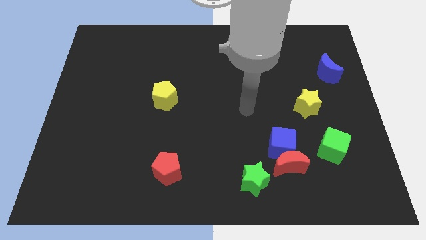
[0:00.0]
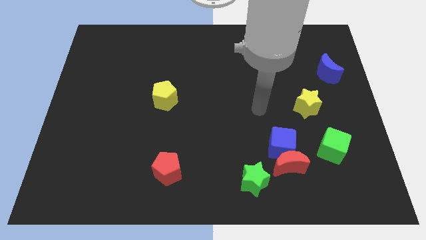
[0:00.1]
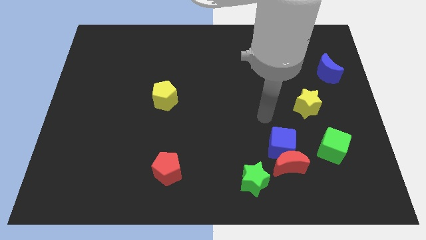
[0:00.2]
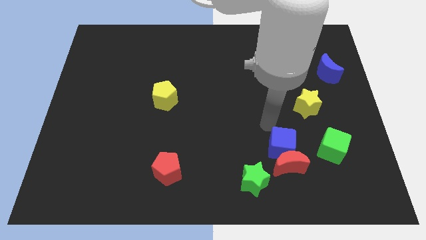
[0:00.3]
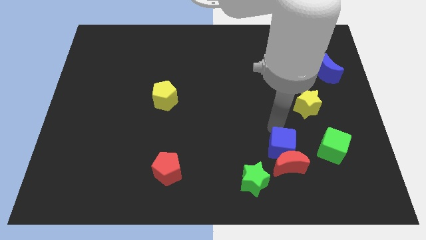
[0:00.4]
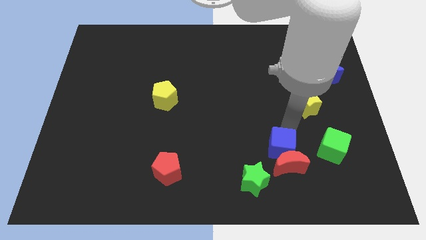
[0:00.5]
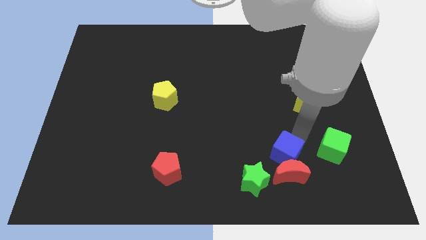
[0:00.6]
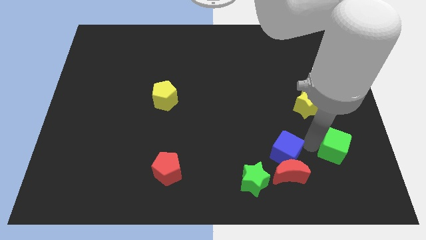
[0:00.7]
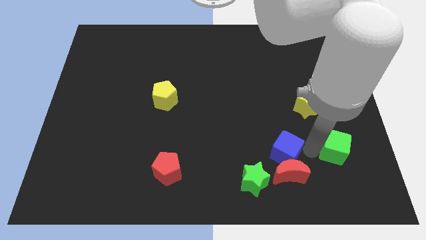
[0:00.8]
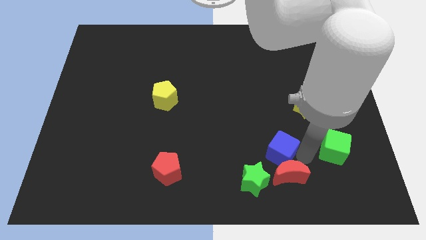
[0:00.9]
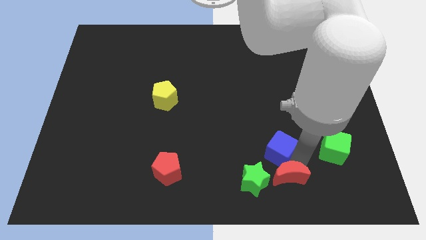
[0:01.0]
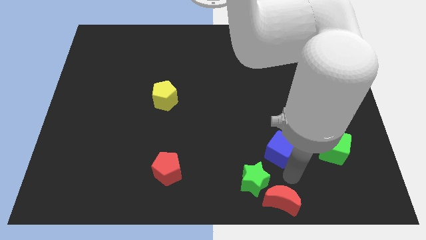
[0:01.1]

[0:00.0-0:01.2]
separate the blue cube from the red moon

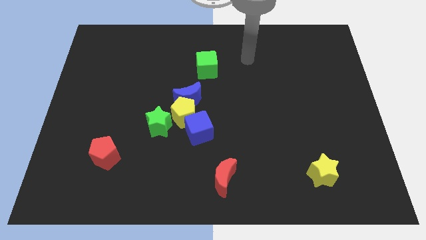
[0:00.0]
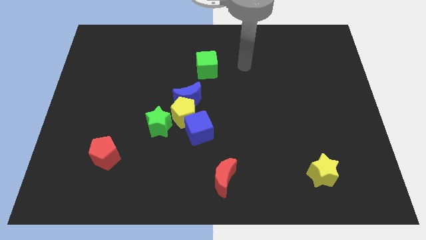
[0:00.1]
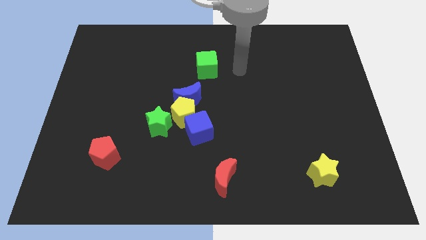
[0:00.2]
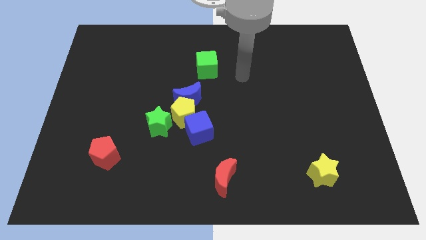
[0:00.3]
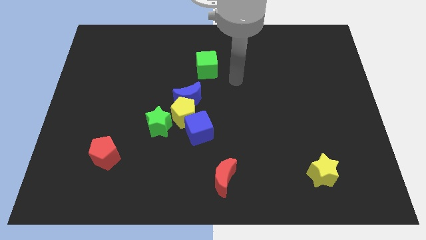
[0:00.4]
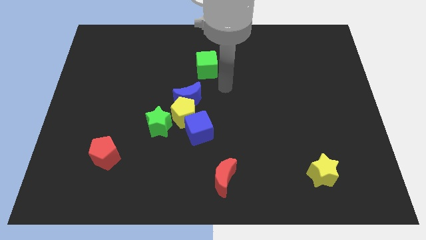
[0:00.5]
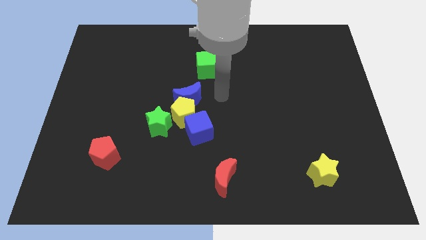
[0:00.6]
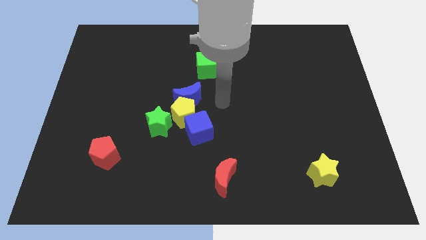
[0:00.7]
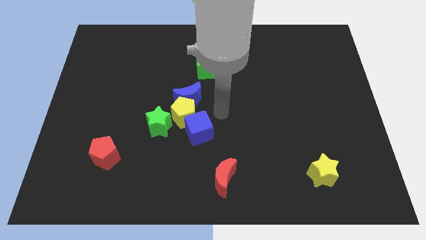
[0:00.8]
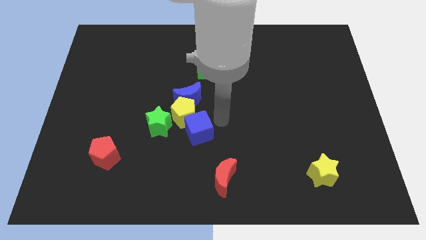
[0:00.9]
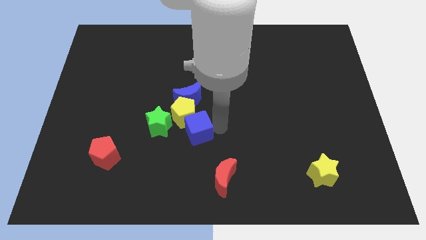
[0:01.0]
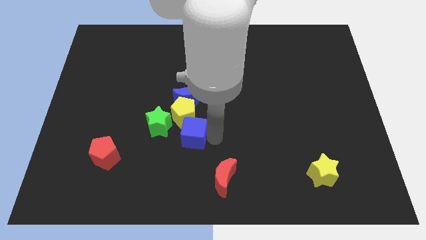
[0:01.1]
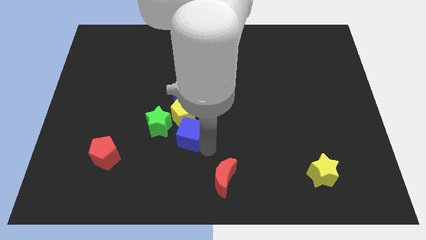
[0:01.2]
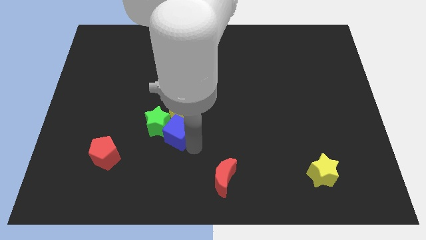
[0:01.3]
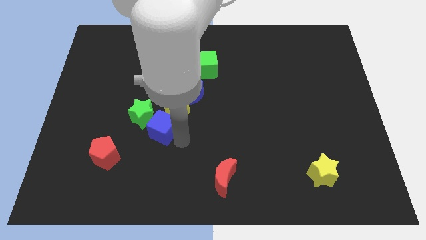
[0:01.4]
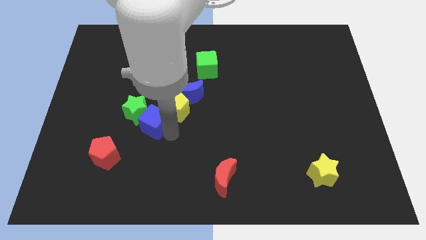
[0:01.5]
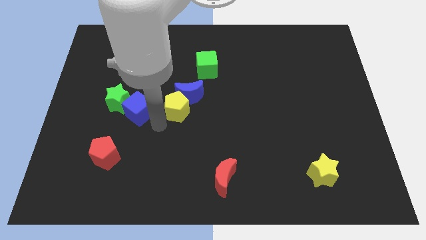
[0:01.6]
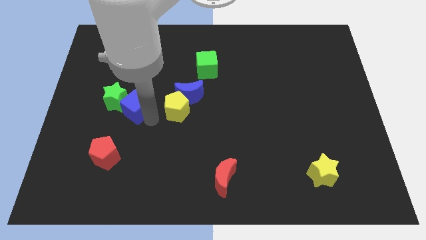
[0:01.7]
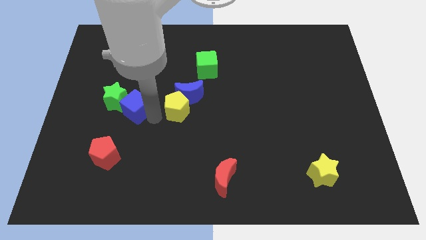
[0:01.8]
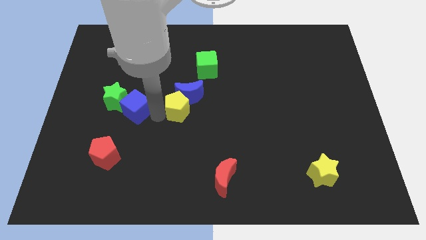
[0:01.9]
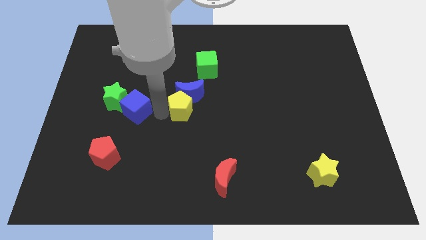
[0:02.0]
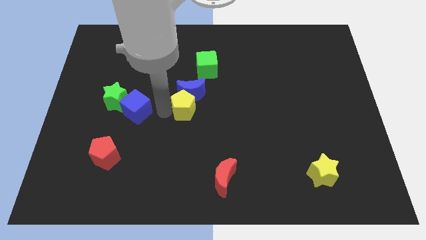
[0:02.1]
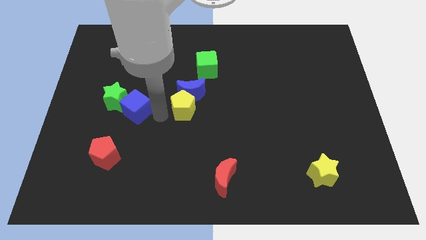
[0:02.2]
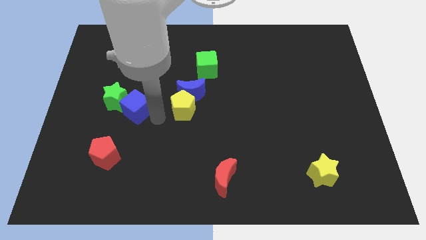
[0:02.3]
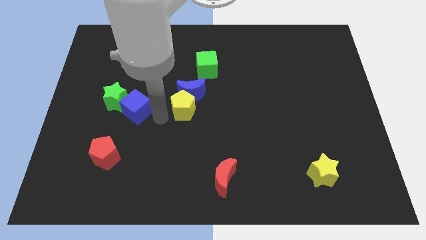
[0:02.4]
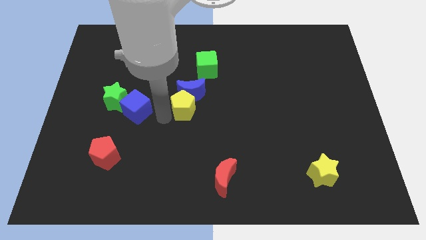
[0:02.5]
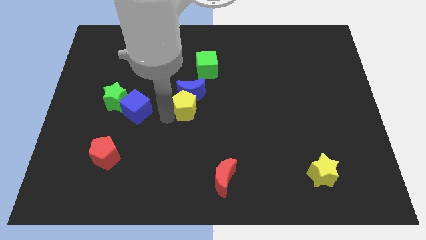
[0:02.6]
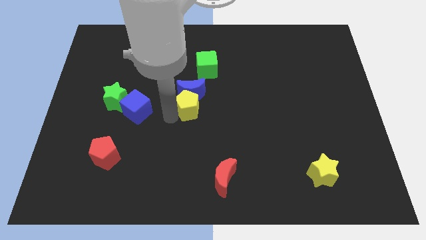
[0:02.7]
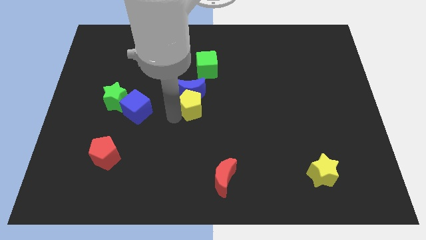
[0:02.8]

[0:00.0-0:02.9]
move the yellow pentagon away from the group

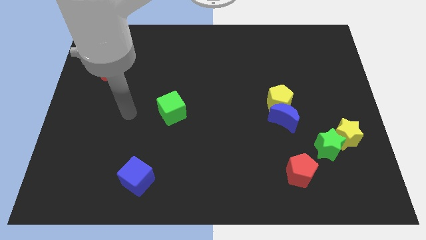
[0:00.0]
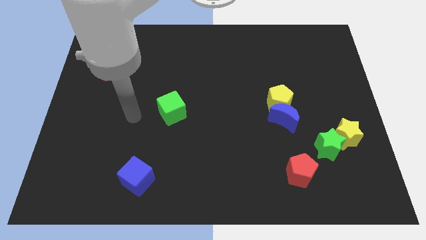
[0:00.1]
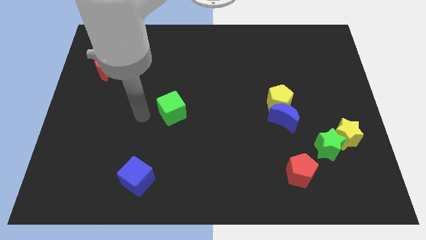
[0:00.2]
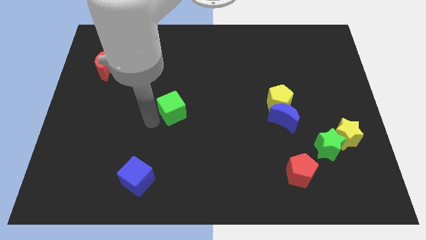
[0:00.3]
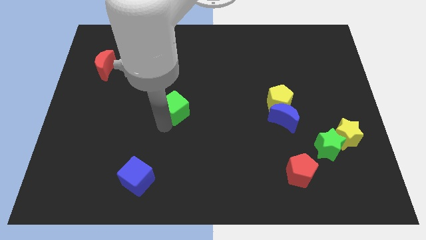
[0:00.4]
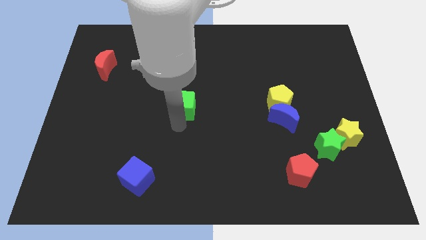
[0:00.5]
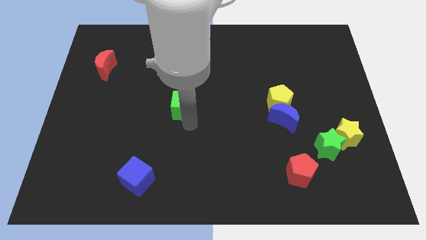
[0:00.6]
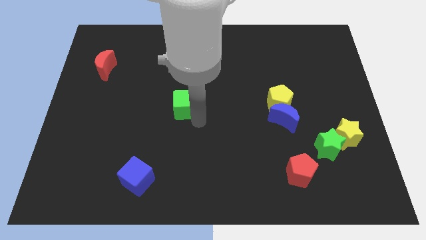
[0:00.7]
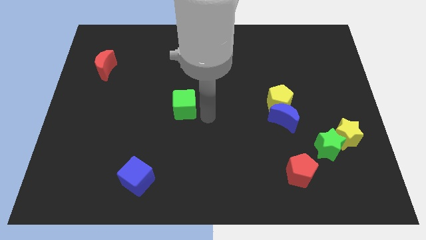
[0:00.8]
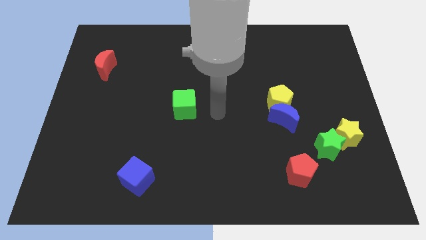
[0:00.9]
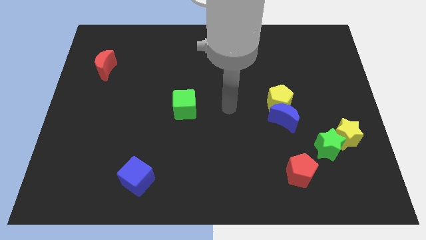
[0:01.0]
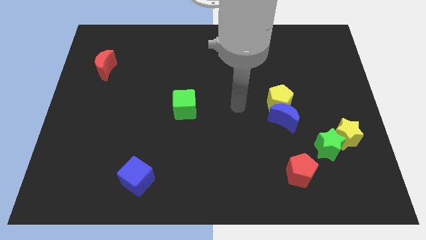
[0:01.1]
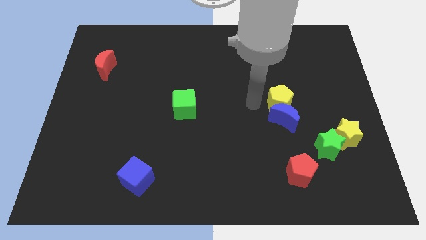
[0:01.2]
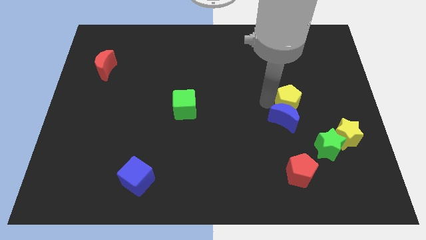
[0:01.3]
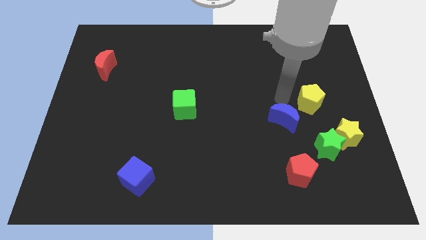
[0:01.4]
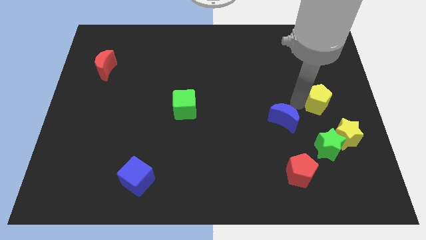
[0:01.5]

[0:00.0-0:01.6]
separate the blue moon from the yellow pentagon

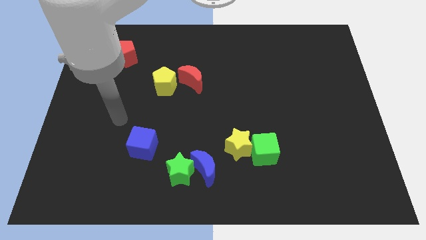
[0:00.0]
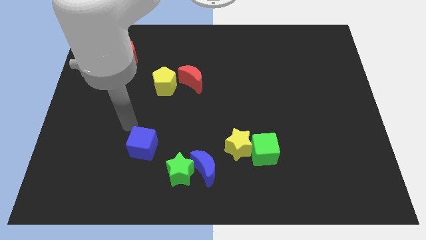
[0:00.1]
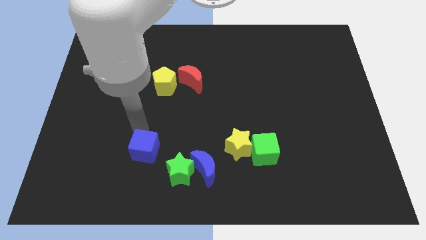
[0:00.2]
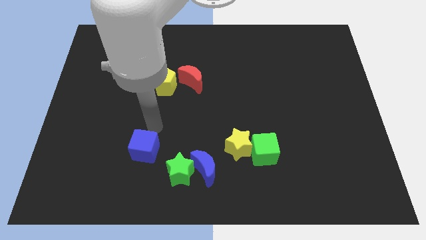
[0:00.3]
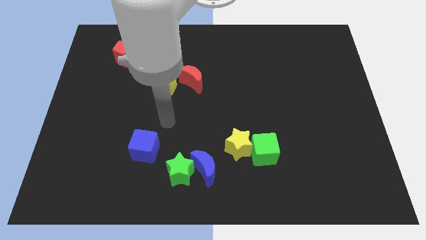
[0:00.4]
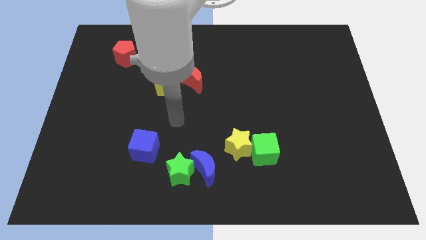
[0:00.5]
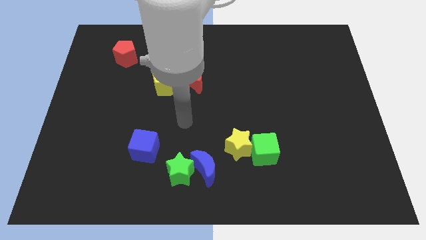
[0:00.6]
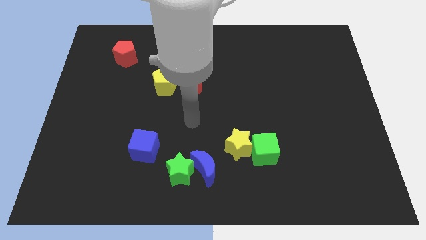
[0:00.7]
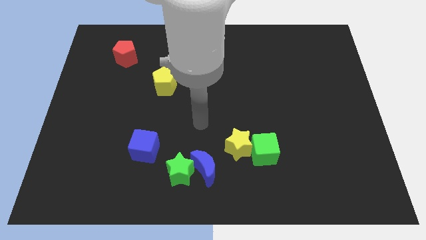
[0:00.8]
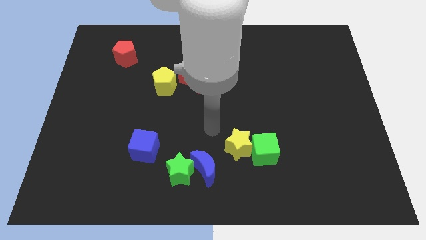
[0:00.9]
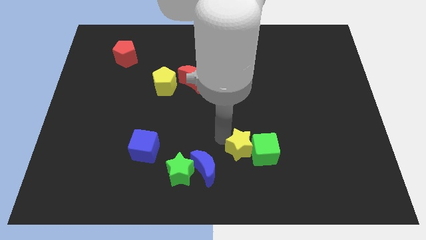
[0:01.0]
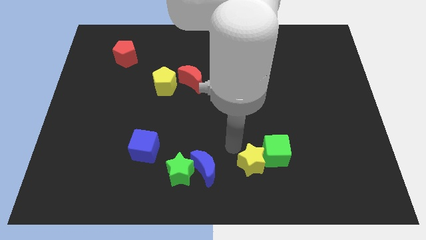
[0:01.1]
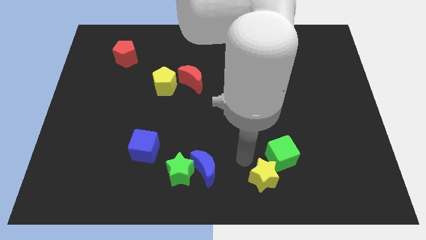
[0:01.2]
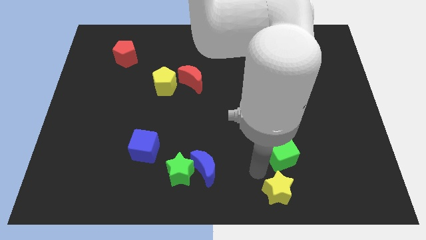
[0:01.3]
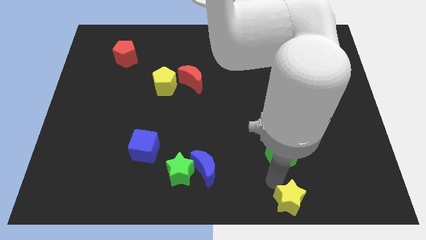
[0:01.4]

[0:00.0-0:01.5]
pull the green cube apart from the yellow star

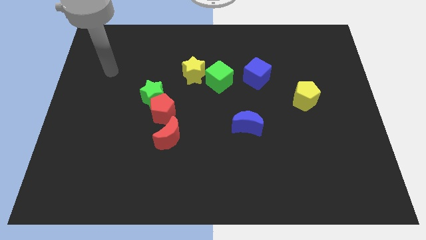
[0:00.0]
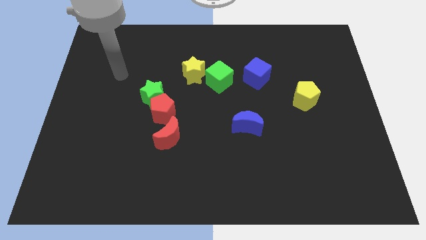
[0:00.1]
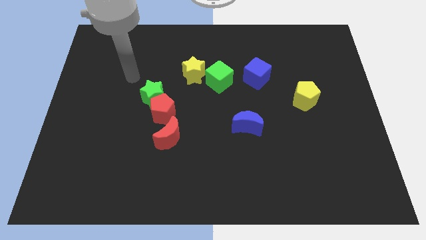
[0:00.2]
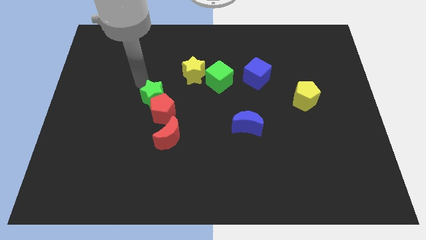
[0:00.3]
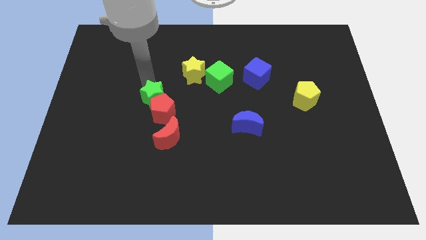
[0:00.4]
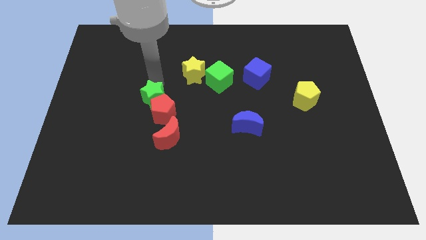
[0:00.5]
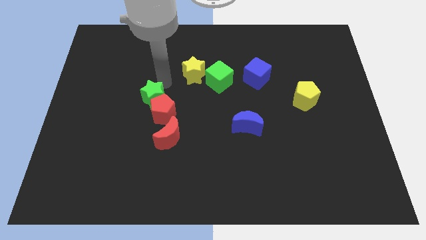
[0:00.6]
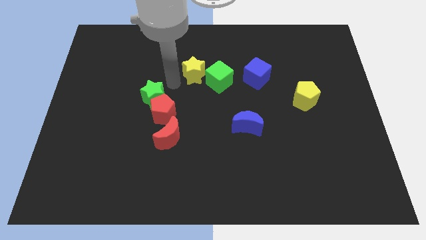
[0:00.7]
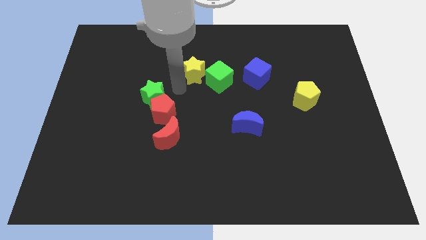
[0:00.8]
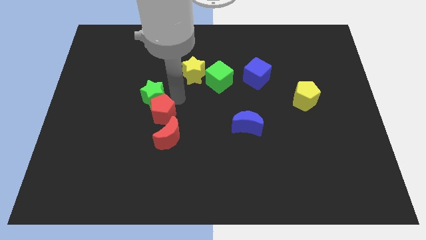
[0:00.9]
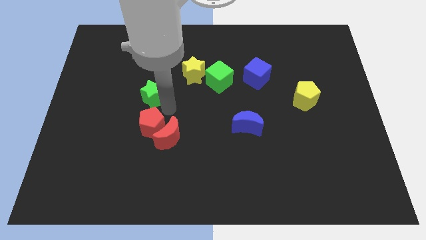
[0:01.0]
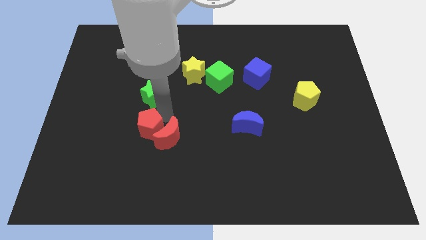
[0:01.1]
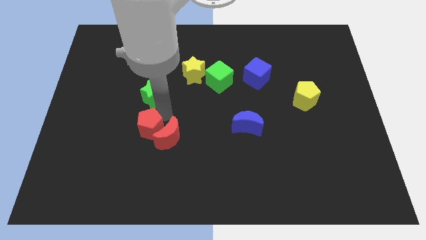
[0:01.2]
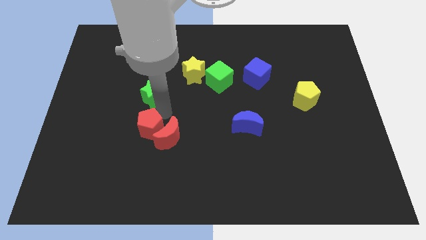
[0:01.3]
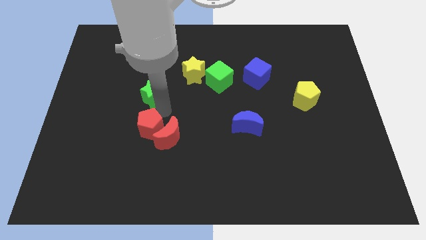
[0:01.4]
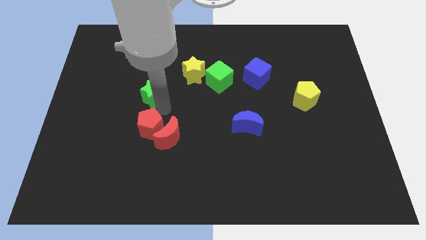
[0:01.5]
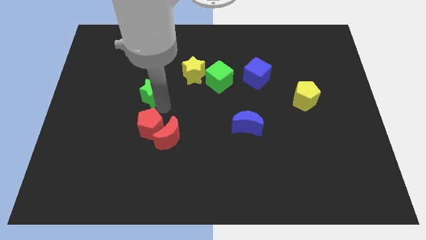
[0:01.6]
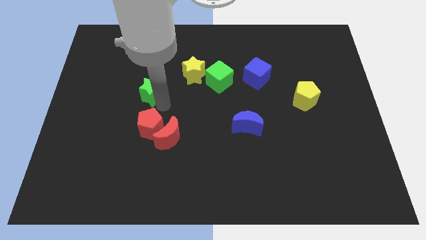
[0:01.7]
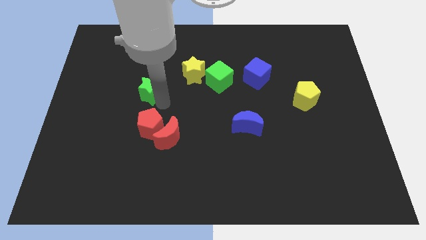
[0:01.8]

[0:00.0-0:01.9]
separate the green star from the red pentagon

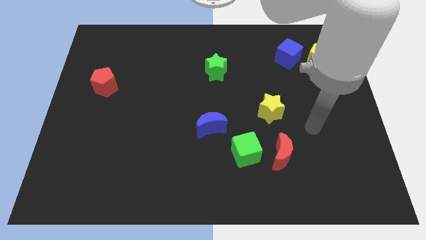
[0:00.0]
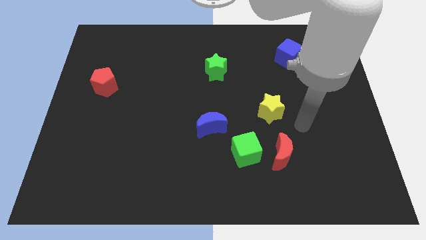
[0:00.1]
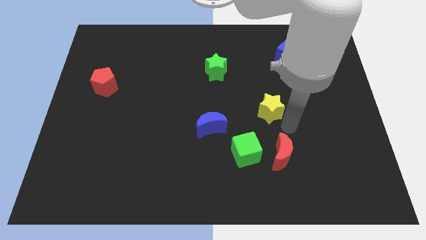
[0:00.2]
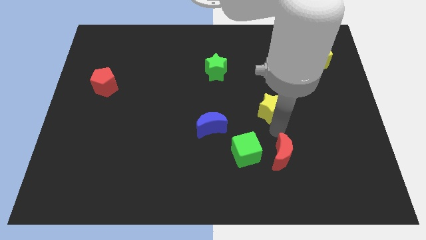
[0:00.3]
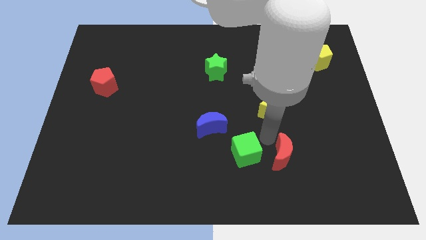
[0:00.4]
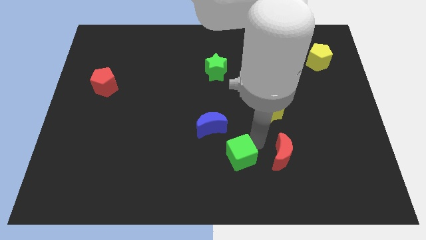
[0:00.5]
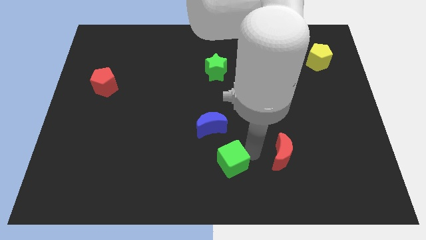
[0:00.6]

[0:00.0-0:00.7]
move the red moon away from the green cube
